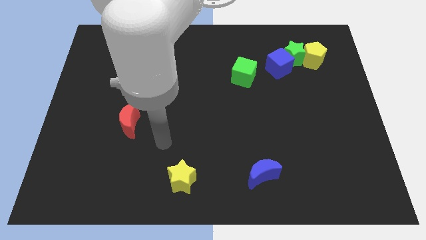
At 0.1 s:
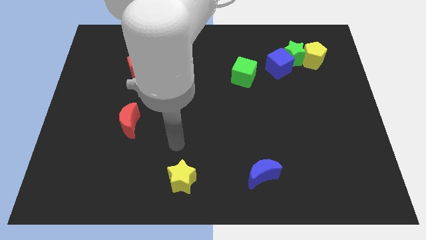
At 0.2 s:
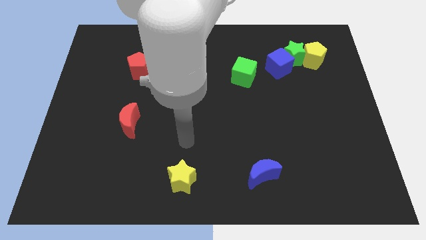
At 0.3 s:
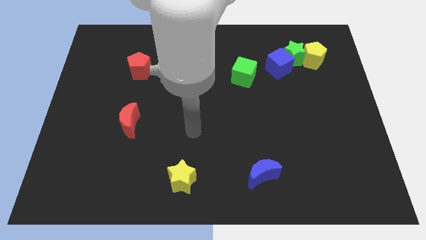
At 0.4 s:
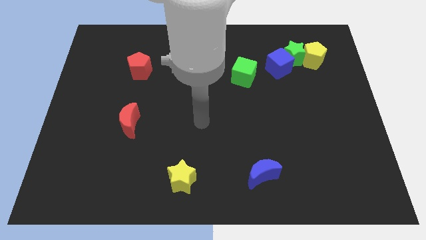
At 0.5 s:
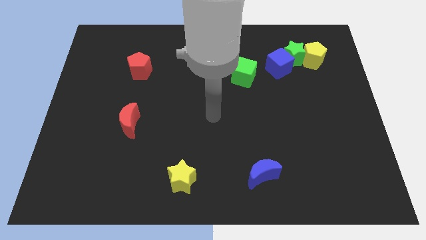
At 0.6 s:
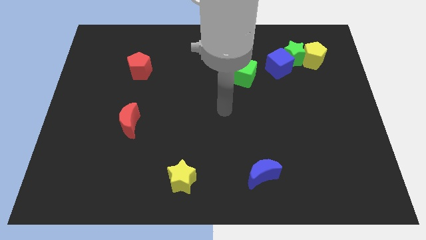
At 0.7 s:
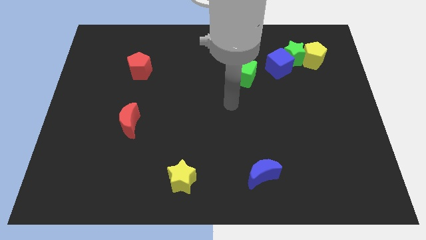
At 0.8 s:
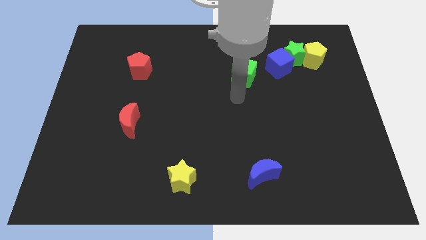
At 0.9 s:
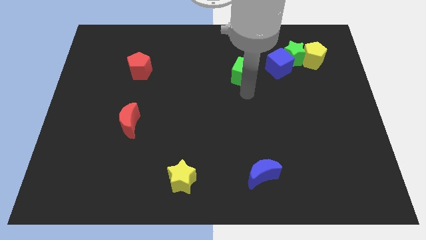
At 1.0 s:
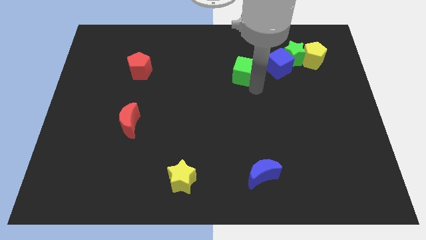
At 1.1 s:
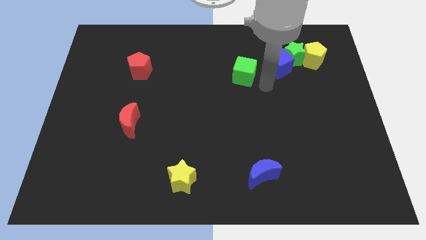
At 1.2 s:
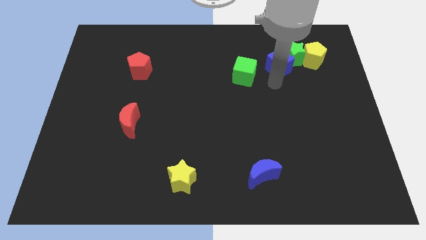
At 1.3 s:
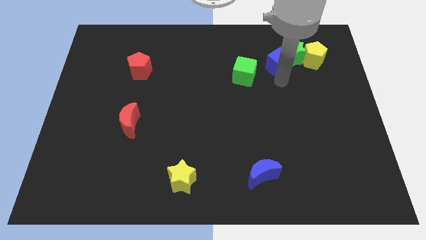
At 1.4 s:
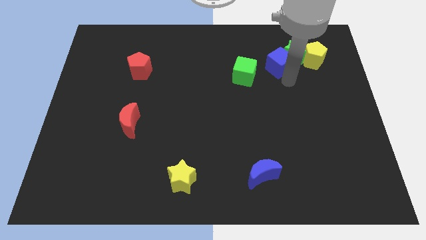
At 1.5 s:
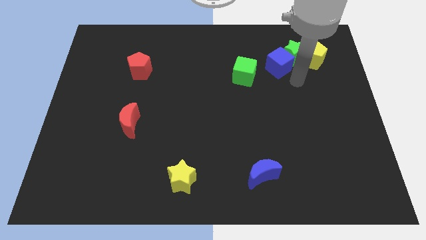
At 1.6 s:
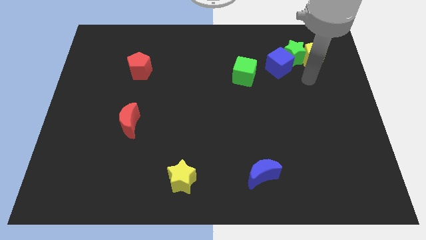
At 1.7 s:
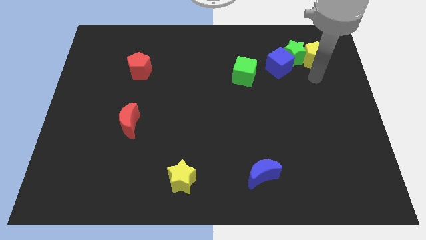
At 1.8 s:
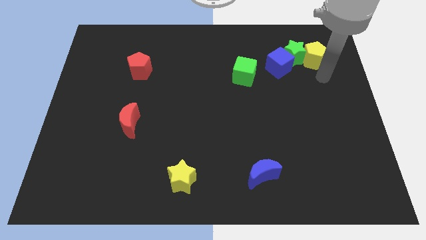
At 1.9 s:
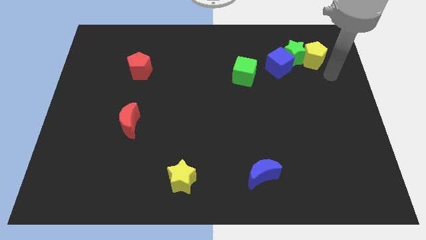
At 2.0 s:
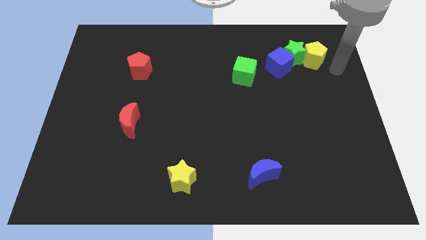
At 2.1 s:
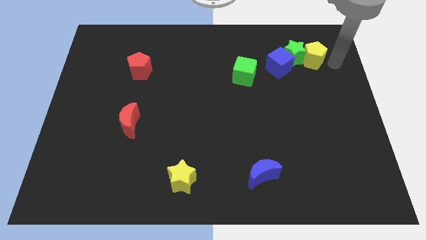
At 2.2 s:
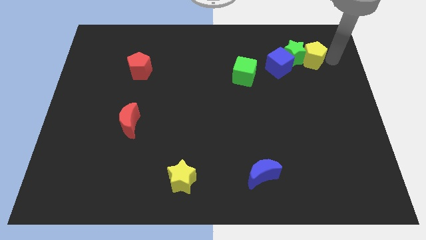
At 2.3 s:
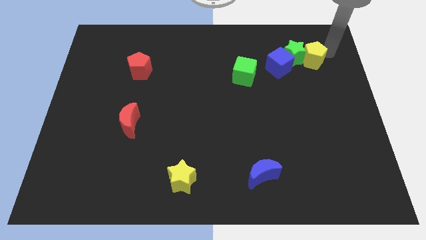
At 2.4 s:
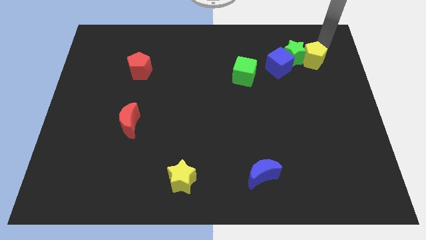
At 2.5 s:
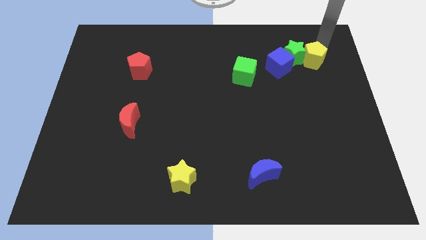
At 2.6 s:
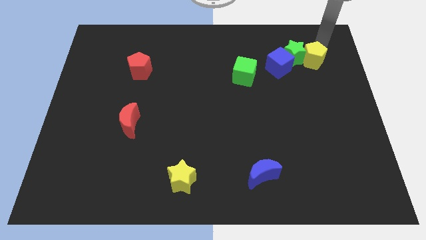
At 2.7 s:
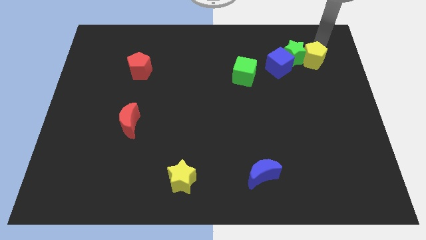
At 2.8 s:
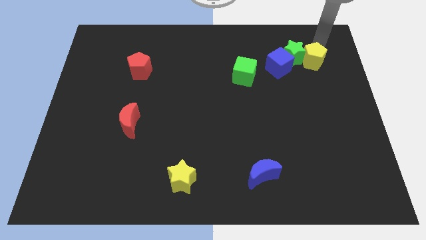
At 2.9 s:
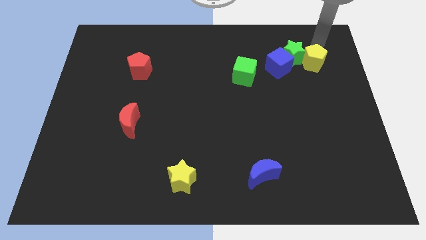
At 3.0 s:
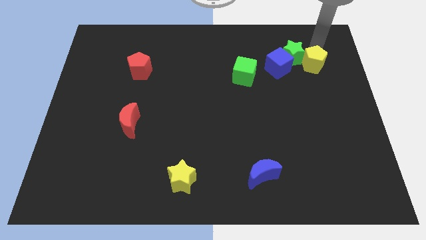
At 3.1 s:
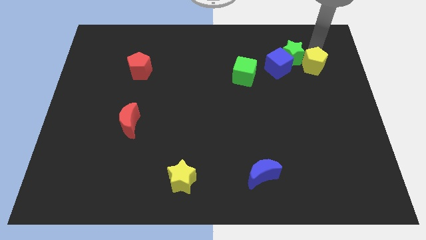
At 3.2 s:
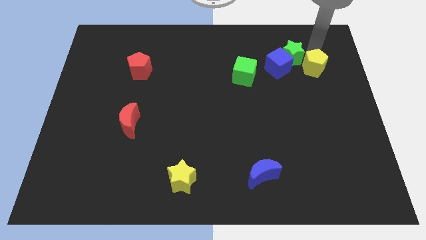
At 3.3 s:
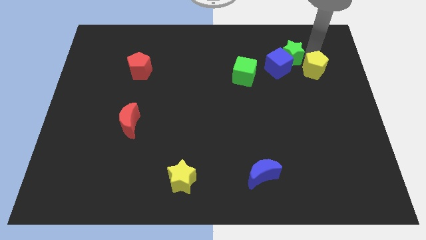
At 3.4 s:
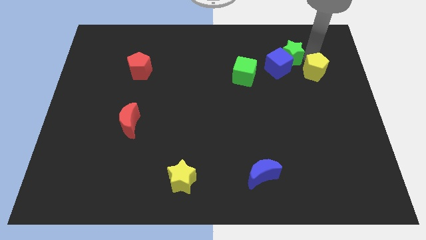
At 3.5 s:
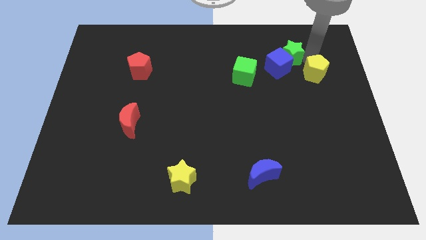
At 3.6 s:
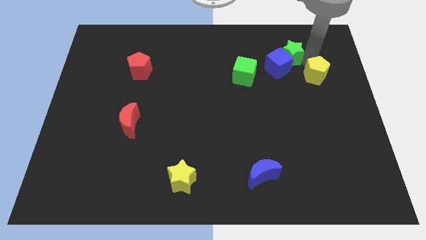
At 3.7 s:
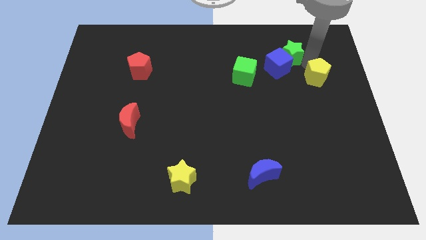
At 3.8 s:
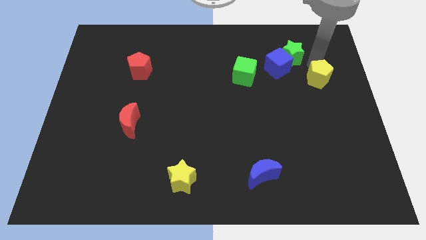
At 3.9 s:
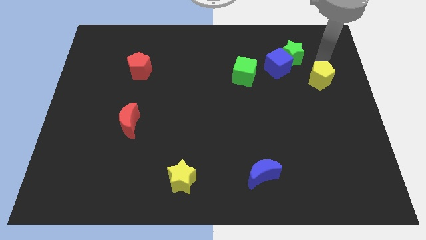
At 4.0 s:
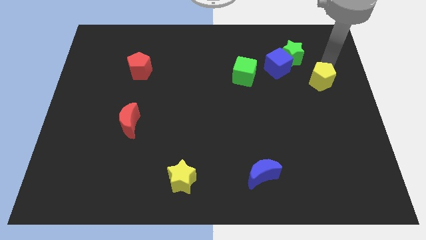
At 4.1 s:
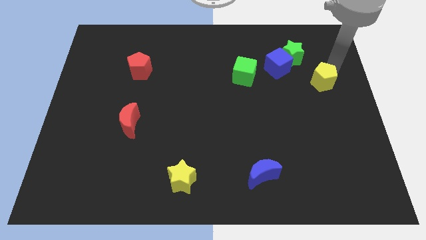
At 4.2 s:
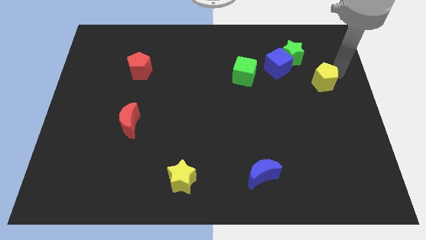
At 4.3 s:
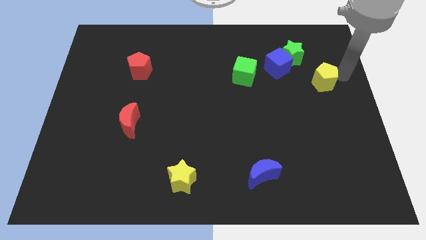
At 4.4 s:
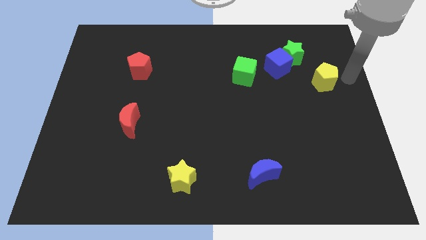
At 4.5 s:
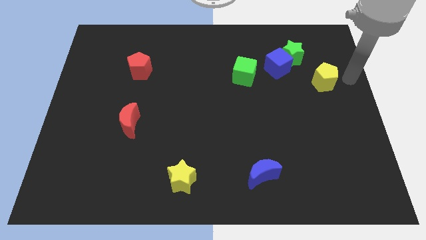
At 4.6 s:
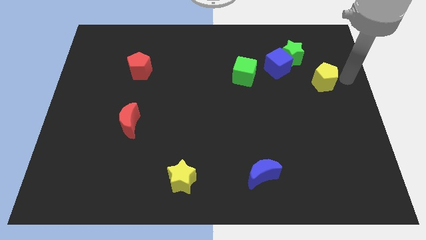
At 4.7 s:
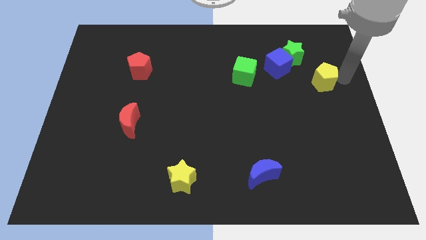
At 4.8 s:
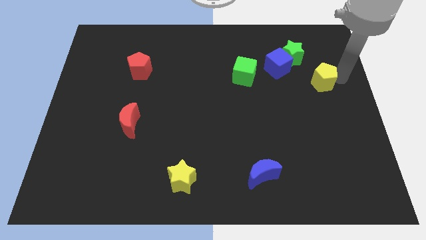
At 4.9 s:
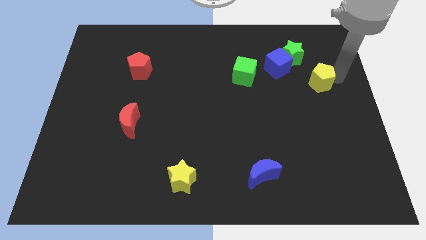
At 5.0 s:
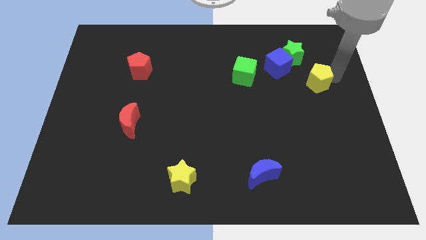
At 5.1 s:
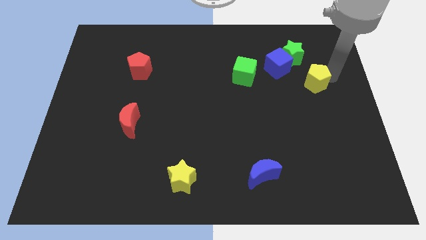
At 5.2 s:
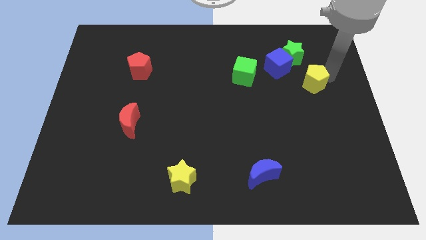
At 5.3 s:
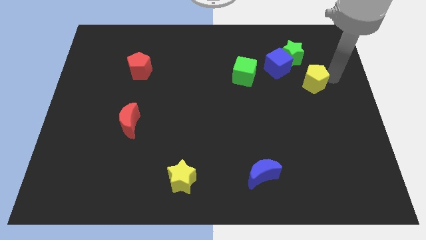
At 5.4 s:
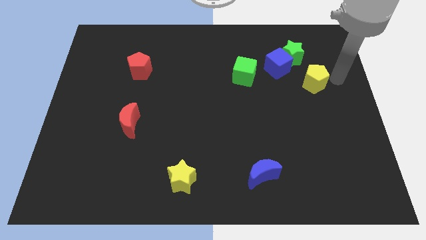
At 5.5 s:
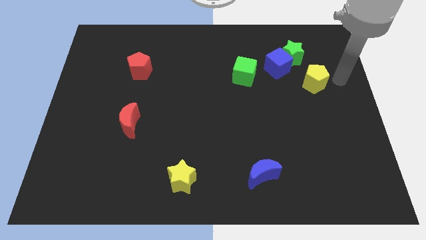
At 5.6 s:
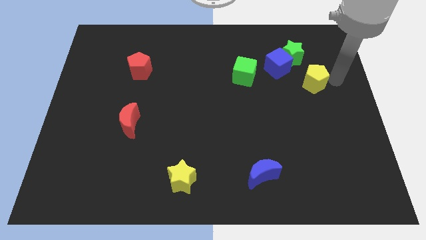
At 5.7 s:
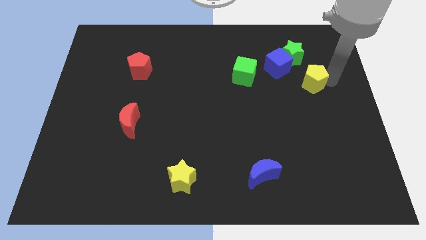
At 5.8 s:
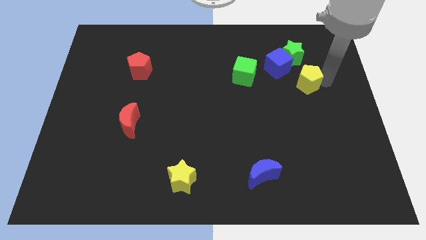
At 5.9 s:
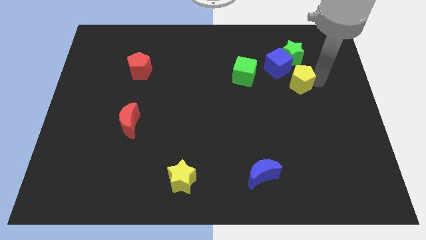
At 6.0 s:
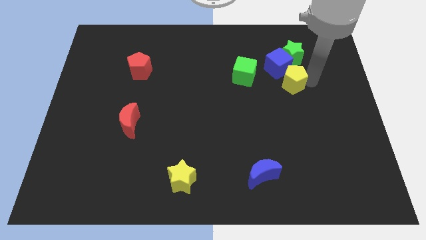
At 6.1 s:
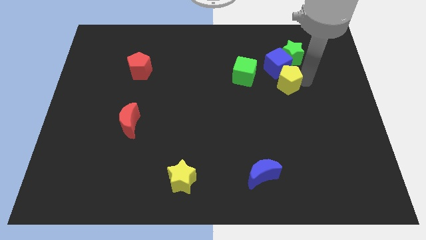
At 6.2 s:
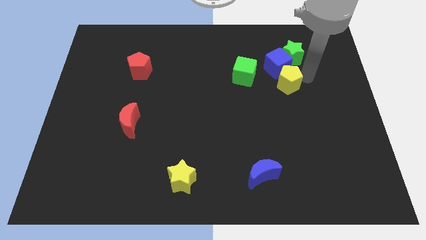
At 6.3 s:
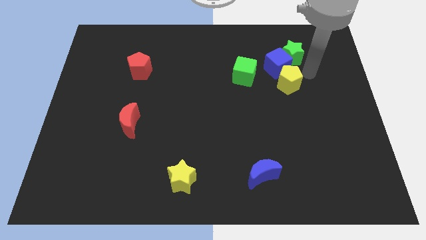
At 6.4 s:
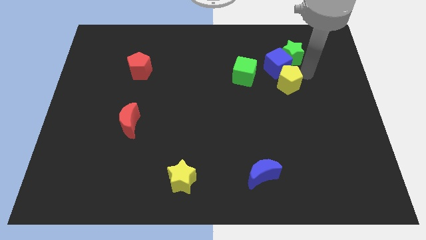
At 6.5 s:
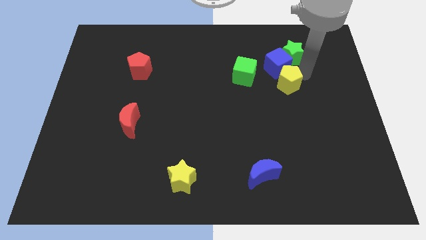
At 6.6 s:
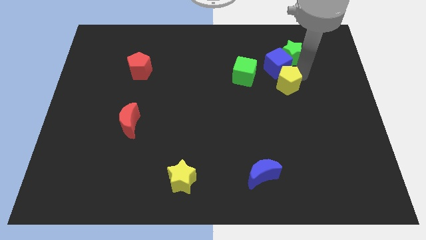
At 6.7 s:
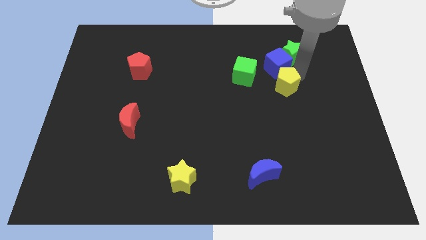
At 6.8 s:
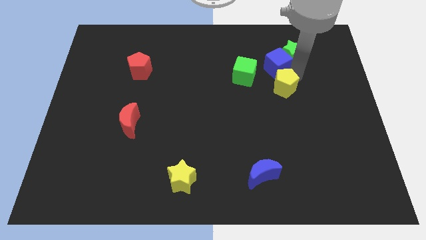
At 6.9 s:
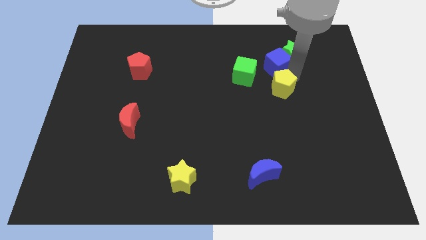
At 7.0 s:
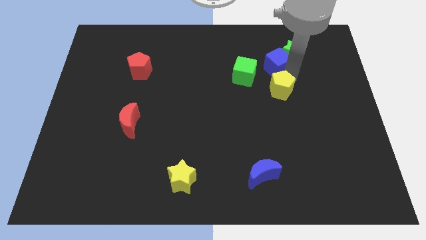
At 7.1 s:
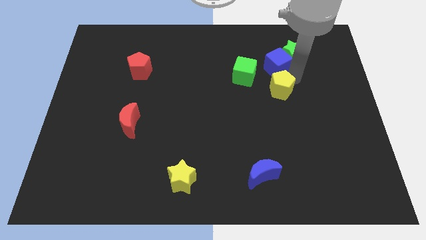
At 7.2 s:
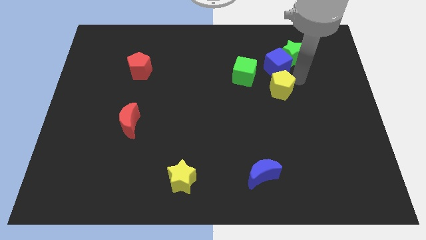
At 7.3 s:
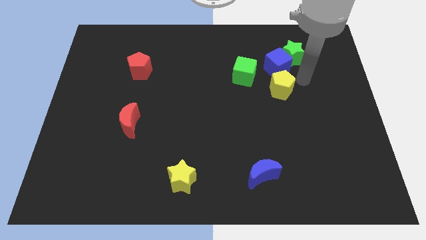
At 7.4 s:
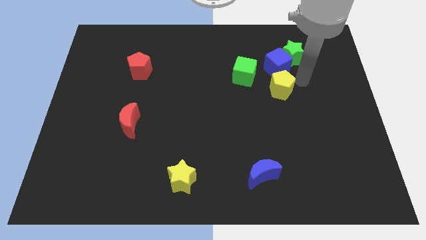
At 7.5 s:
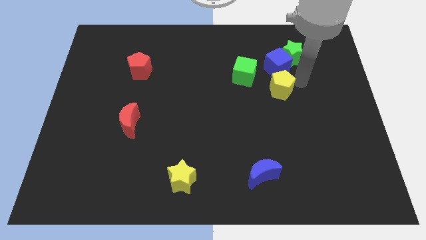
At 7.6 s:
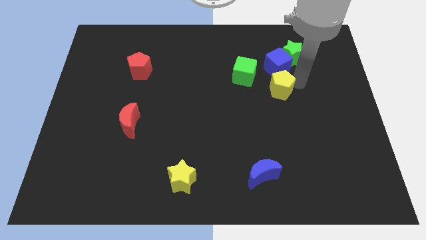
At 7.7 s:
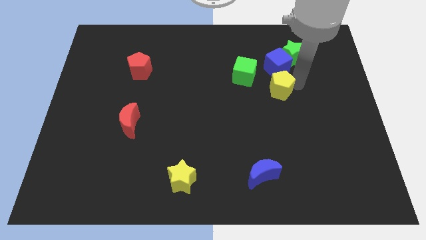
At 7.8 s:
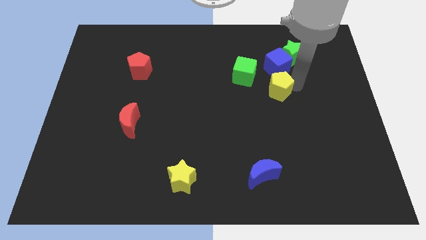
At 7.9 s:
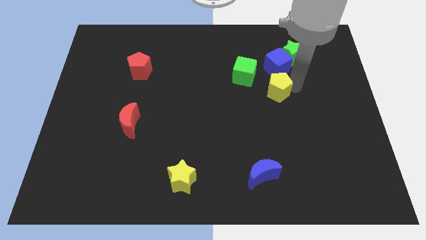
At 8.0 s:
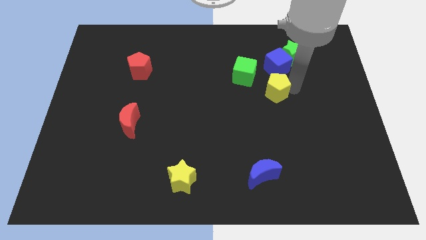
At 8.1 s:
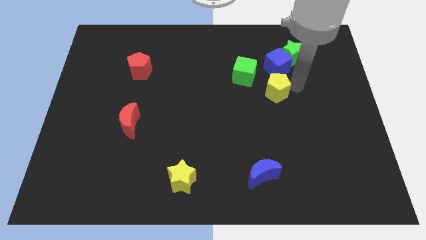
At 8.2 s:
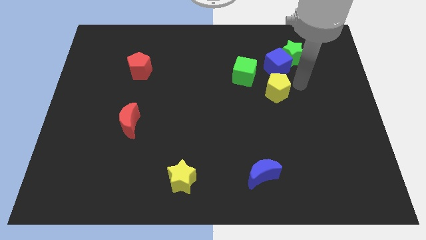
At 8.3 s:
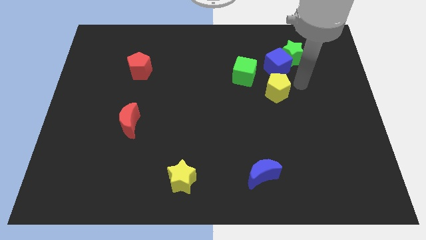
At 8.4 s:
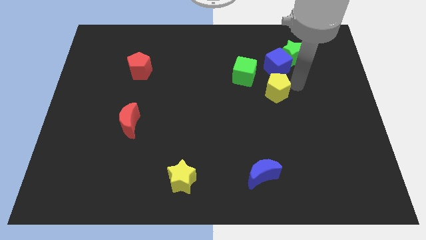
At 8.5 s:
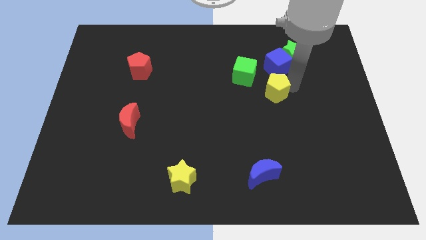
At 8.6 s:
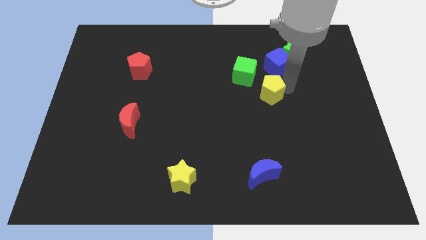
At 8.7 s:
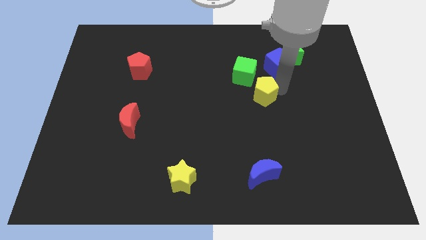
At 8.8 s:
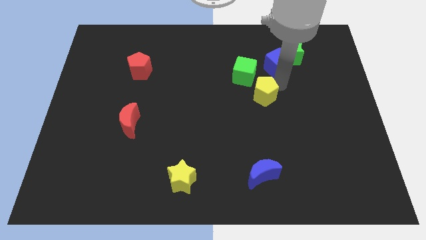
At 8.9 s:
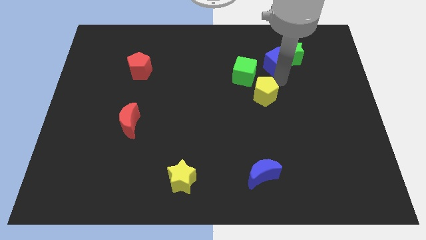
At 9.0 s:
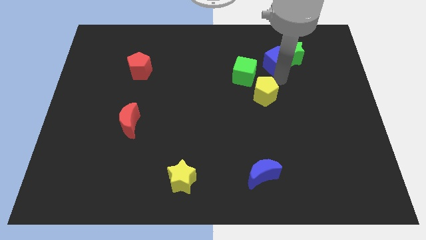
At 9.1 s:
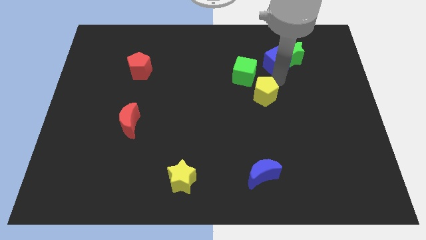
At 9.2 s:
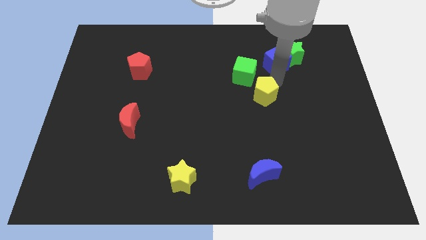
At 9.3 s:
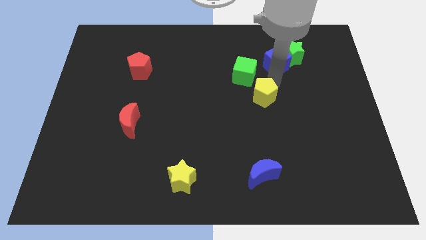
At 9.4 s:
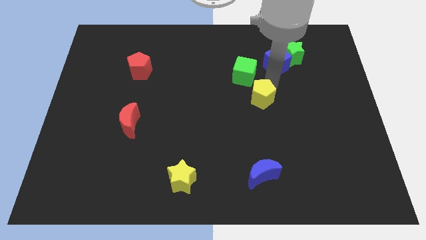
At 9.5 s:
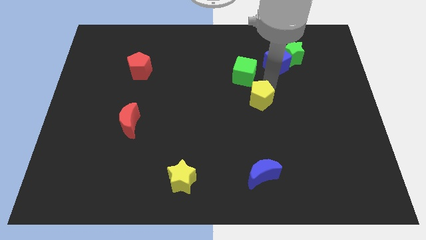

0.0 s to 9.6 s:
slide the yellow pentagon downwards and then left
